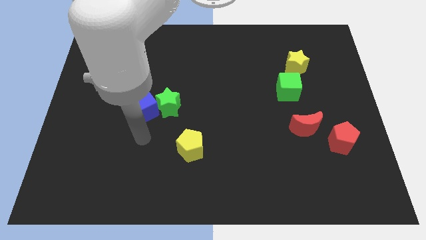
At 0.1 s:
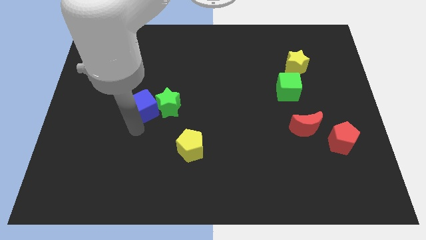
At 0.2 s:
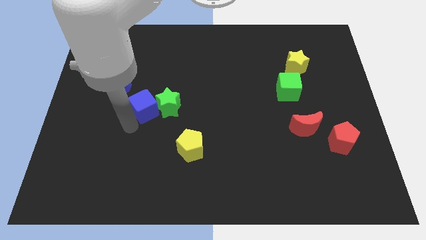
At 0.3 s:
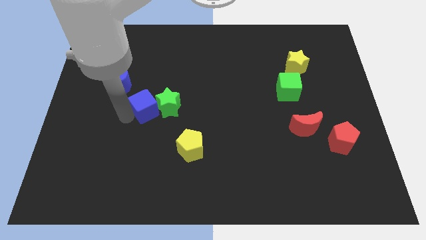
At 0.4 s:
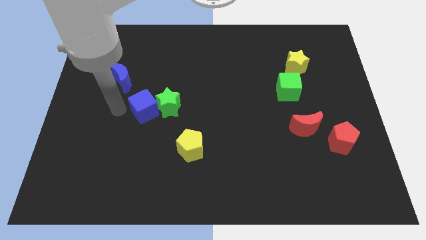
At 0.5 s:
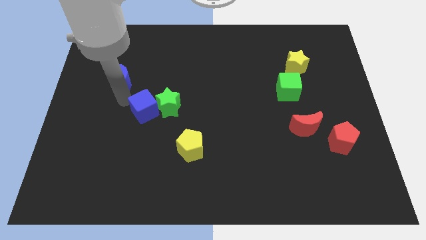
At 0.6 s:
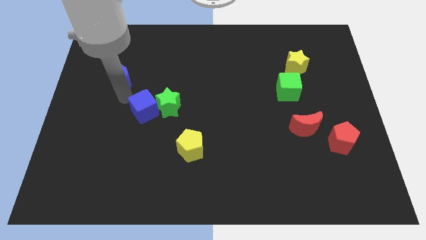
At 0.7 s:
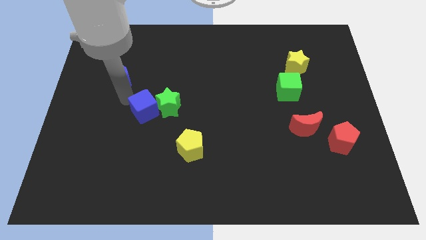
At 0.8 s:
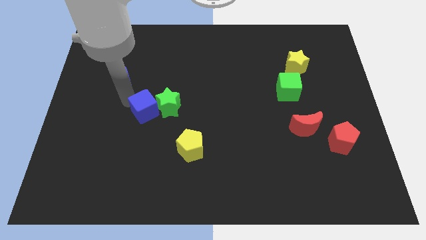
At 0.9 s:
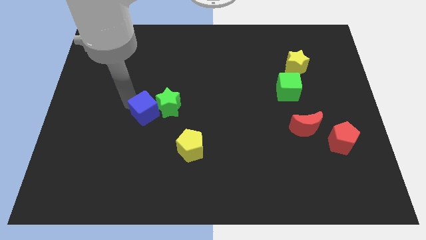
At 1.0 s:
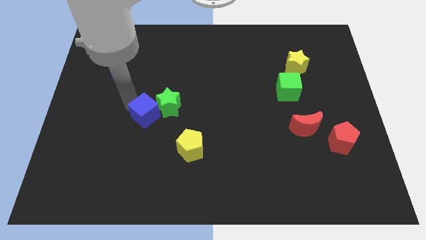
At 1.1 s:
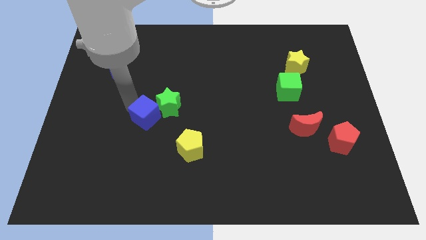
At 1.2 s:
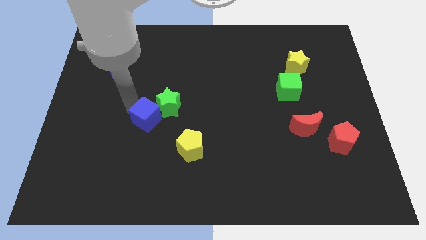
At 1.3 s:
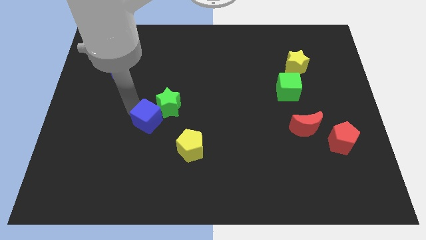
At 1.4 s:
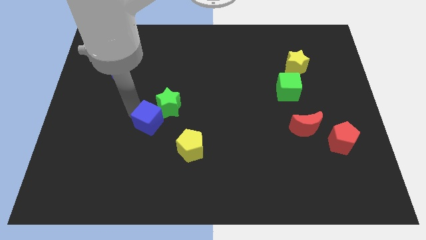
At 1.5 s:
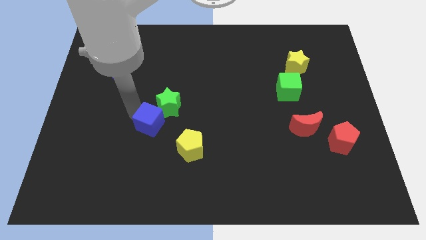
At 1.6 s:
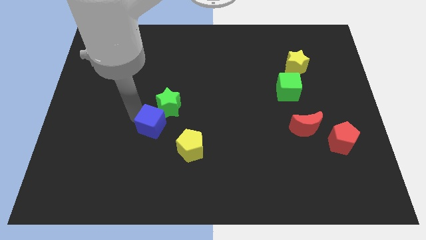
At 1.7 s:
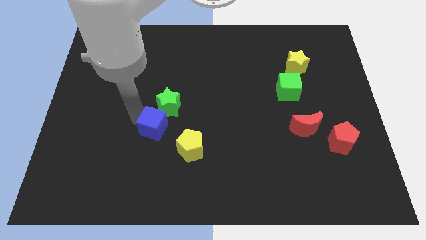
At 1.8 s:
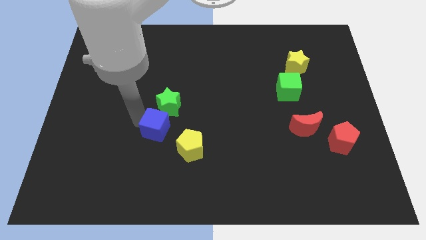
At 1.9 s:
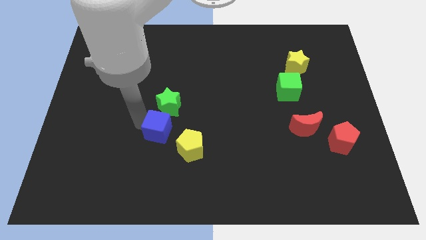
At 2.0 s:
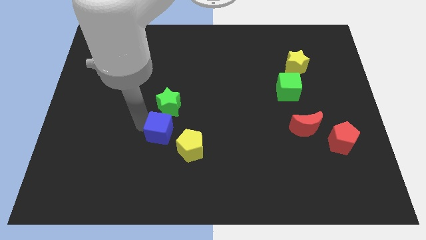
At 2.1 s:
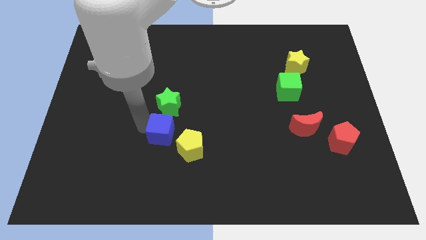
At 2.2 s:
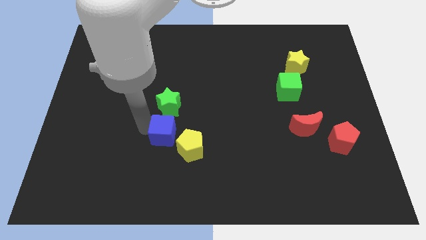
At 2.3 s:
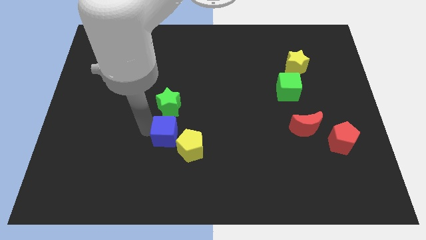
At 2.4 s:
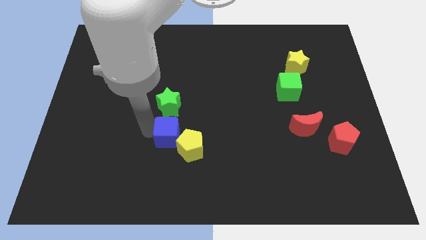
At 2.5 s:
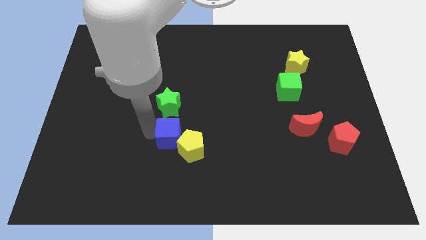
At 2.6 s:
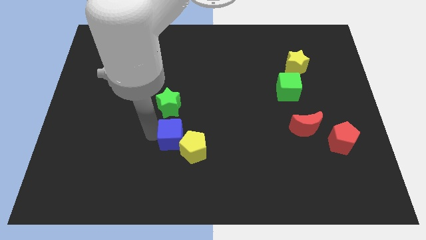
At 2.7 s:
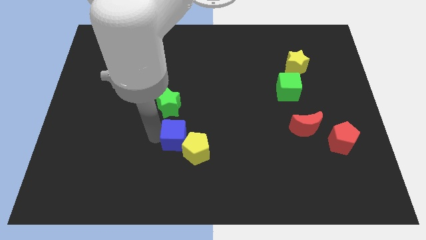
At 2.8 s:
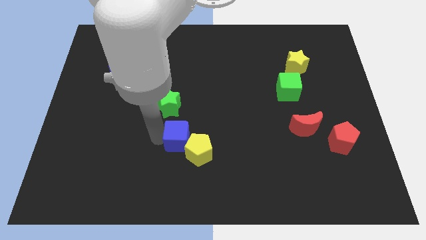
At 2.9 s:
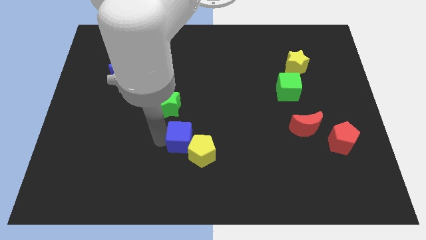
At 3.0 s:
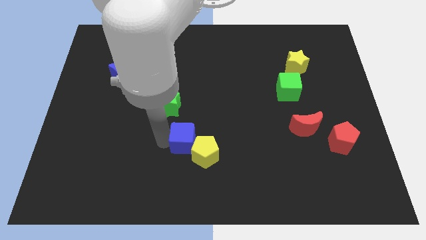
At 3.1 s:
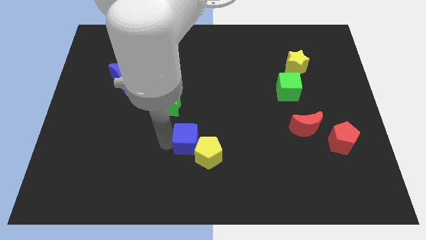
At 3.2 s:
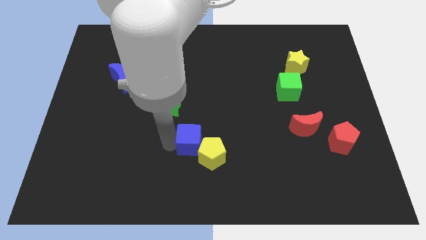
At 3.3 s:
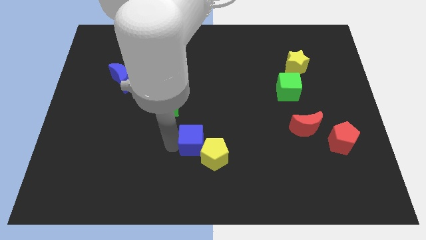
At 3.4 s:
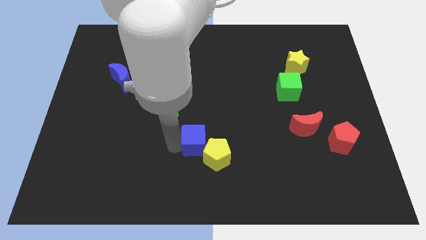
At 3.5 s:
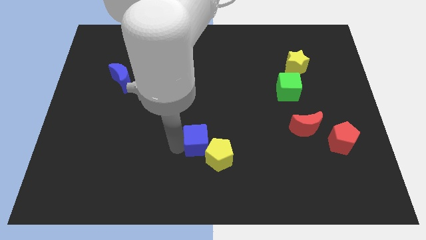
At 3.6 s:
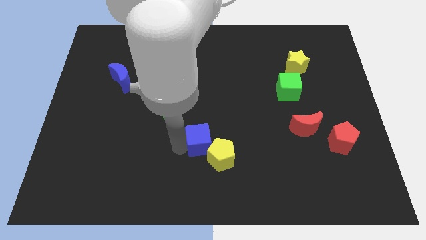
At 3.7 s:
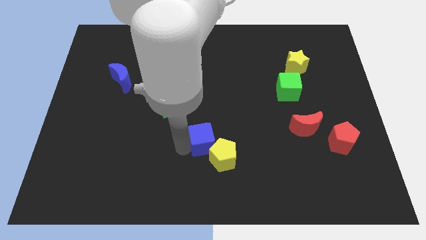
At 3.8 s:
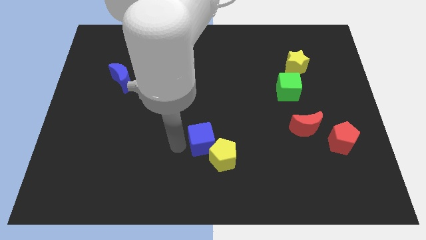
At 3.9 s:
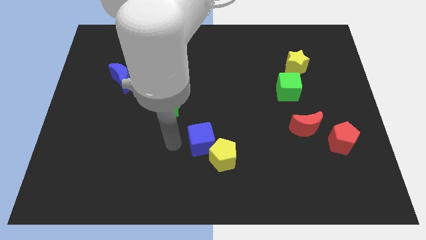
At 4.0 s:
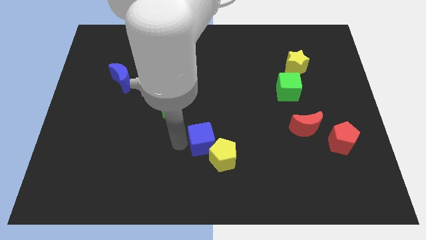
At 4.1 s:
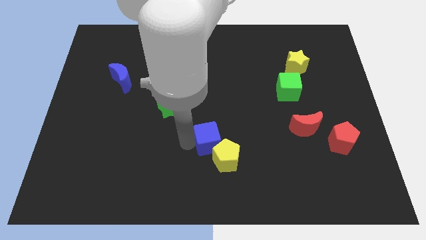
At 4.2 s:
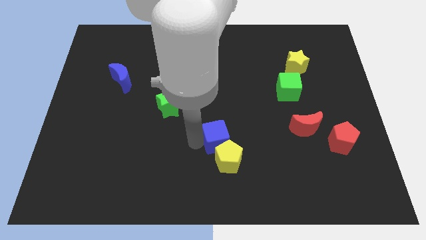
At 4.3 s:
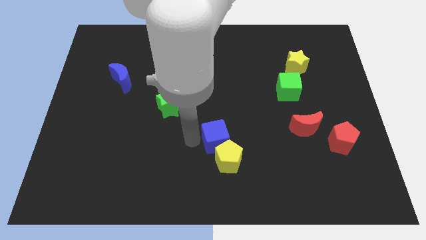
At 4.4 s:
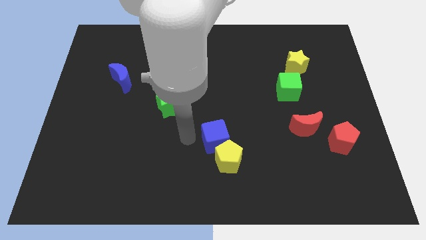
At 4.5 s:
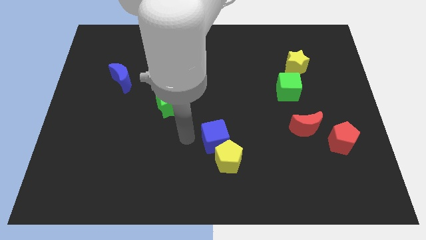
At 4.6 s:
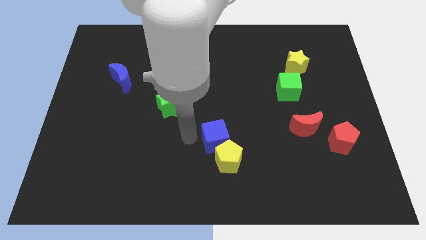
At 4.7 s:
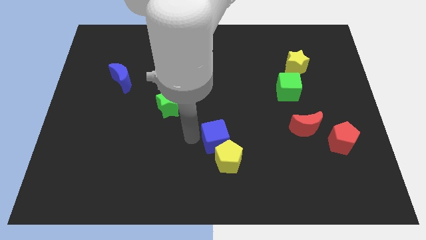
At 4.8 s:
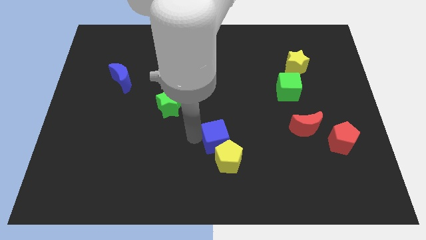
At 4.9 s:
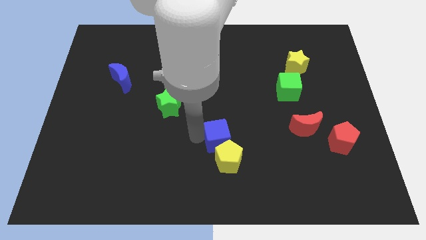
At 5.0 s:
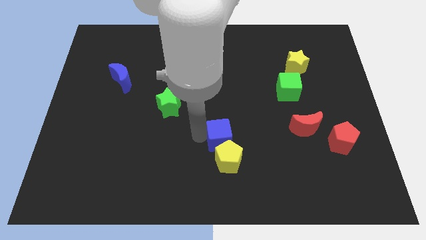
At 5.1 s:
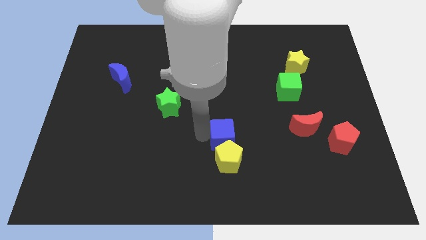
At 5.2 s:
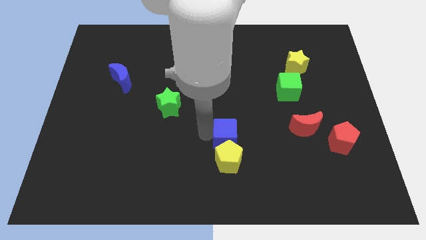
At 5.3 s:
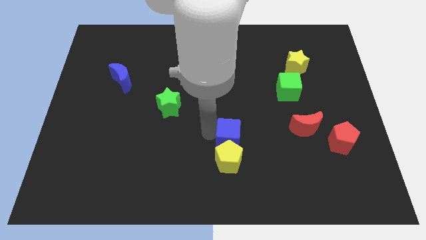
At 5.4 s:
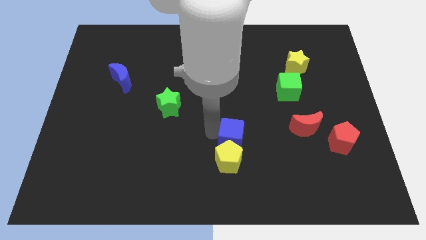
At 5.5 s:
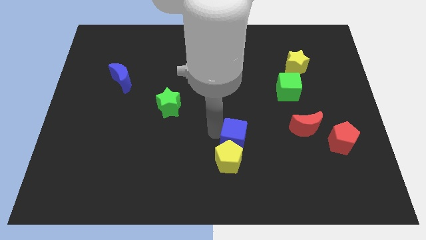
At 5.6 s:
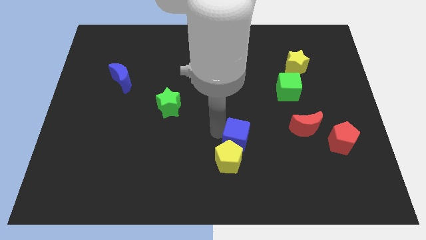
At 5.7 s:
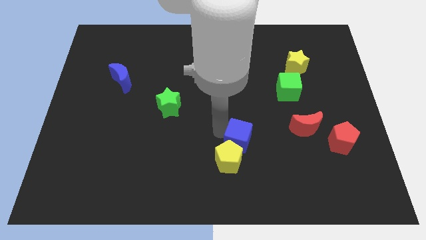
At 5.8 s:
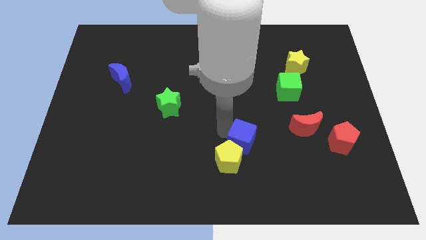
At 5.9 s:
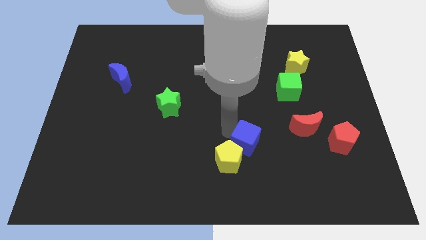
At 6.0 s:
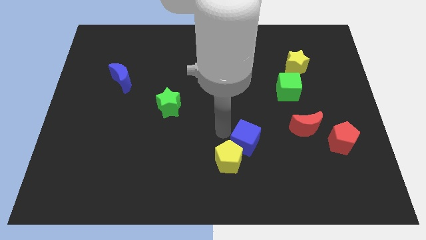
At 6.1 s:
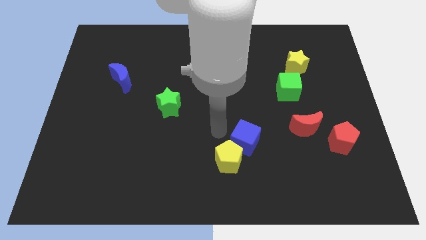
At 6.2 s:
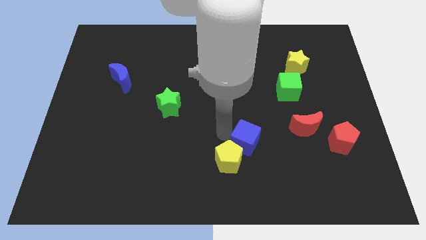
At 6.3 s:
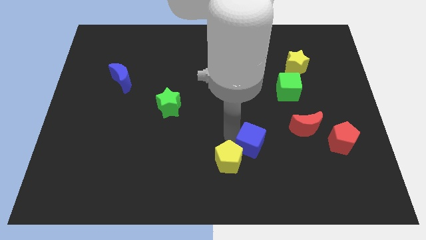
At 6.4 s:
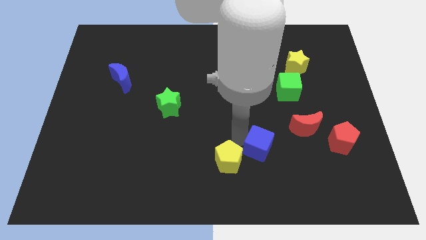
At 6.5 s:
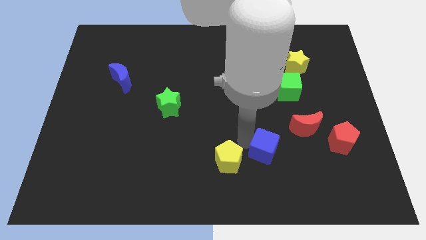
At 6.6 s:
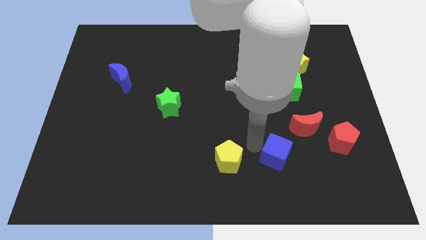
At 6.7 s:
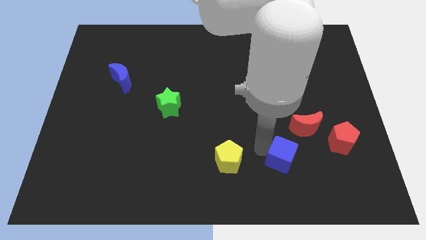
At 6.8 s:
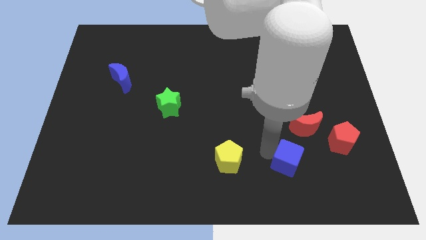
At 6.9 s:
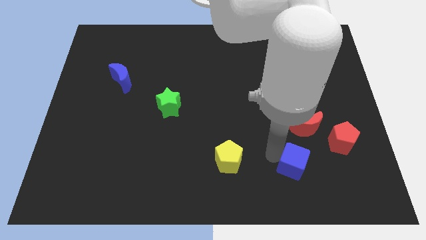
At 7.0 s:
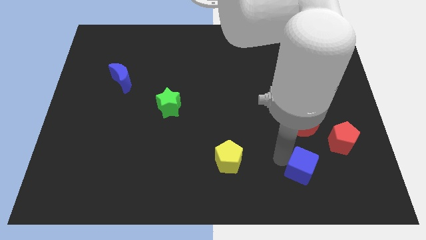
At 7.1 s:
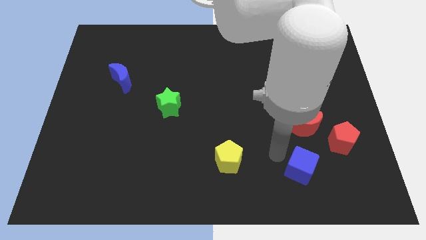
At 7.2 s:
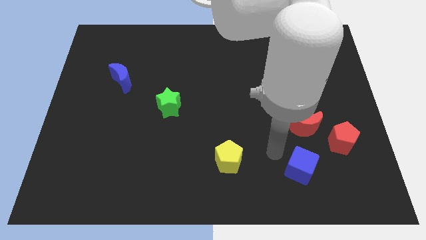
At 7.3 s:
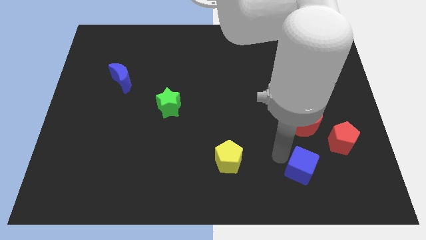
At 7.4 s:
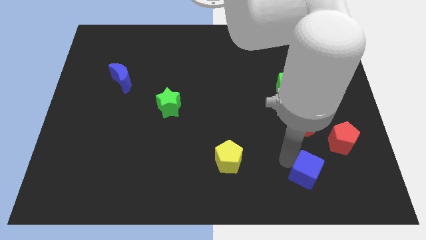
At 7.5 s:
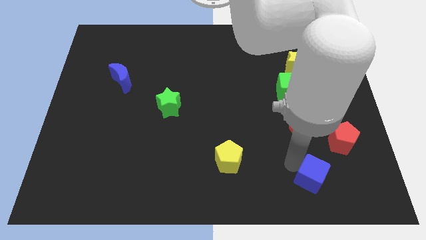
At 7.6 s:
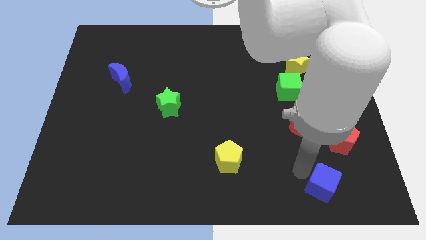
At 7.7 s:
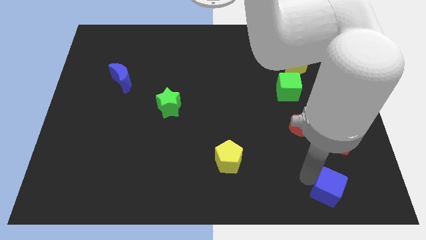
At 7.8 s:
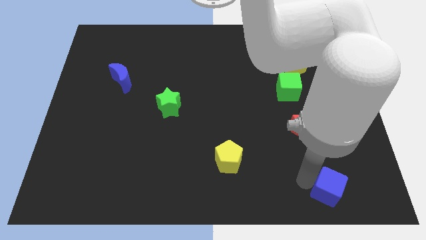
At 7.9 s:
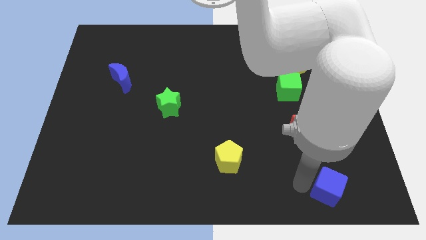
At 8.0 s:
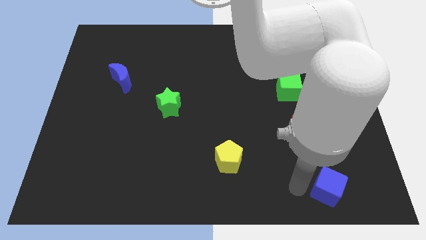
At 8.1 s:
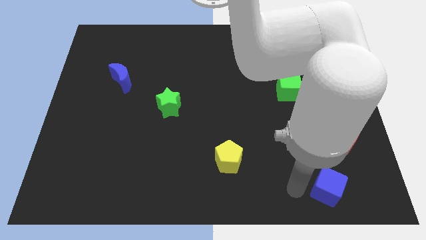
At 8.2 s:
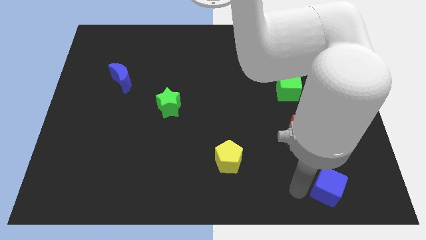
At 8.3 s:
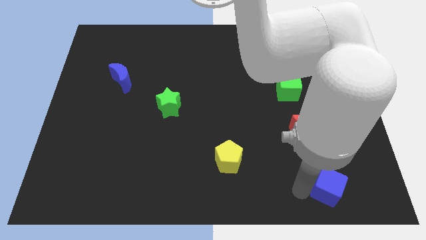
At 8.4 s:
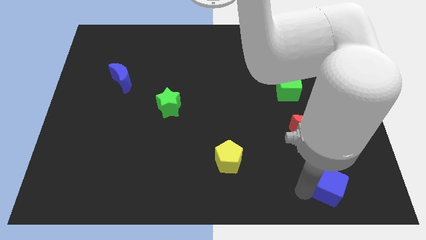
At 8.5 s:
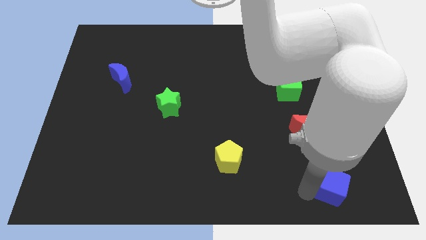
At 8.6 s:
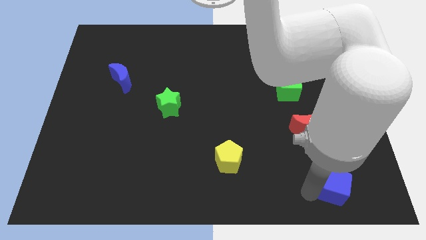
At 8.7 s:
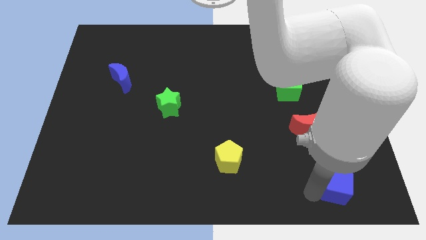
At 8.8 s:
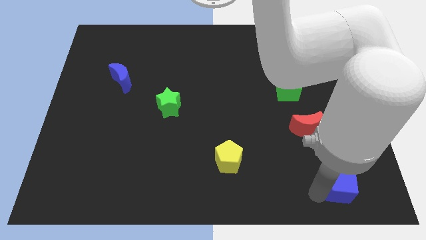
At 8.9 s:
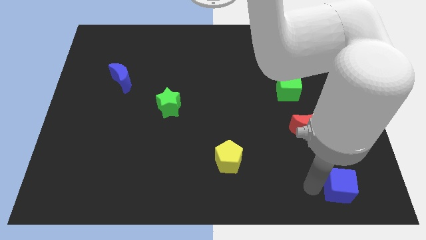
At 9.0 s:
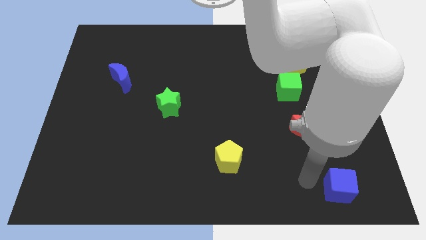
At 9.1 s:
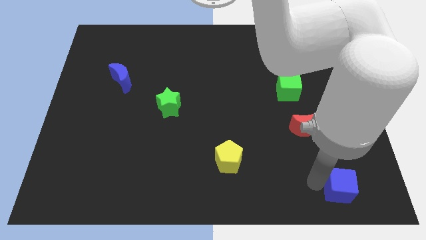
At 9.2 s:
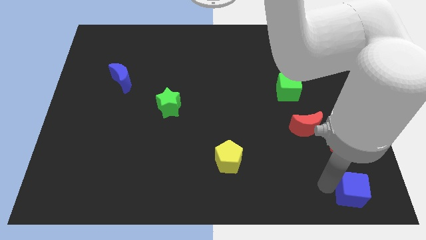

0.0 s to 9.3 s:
move the blue cube to the bottom right
